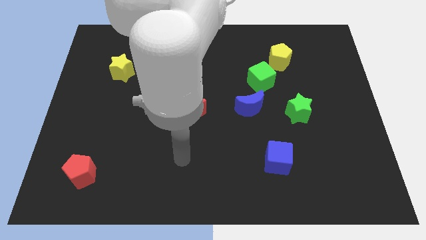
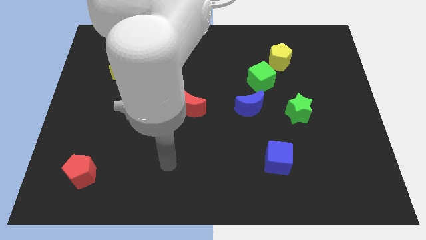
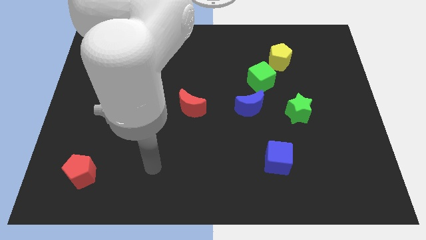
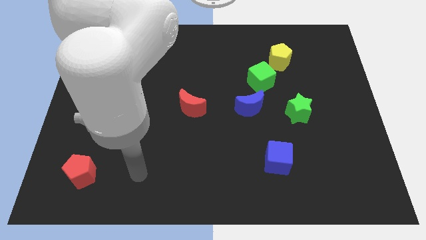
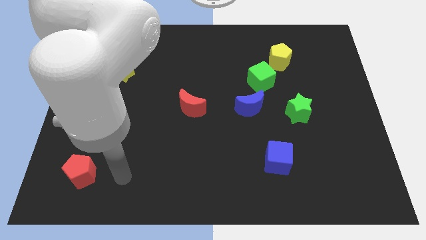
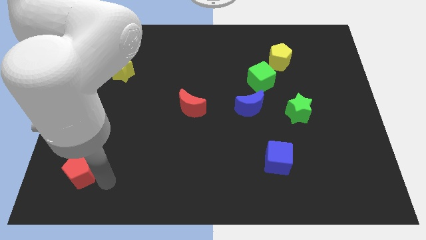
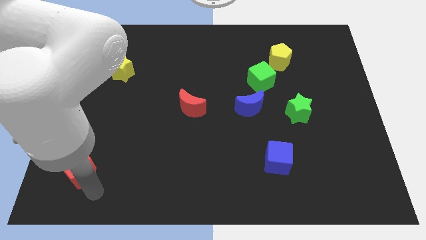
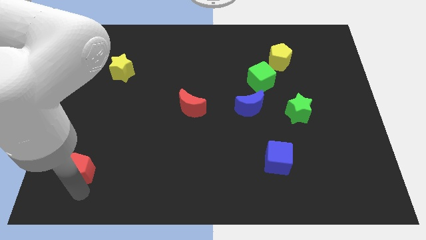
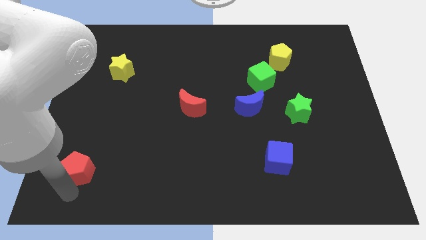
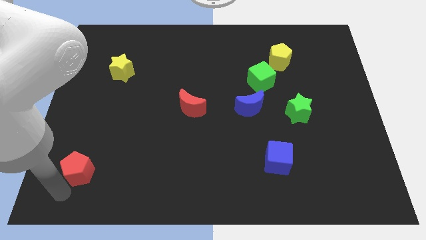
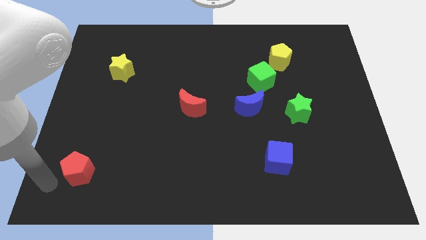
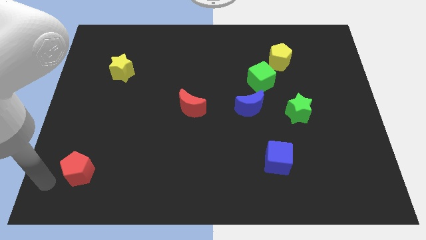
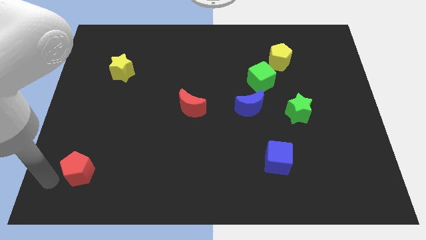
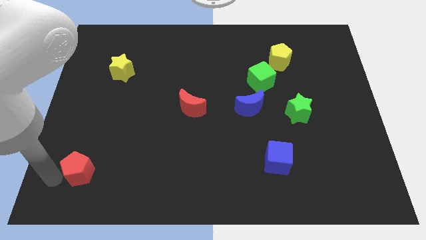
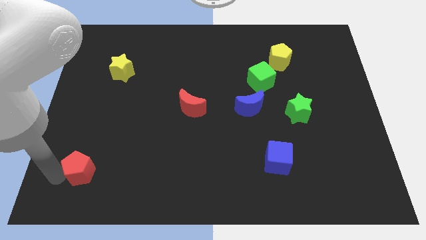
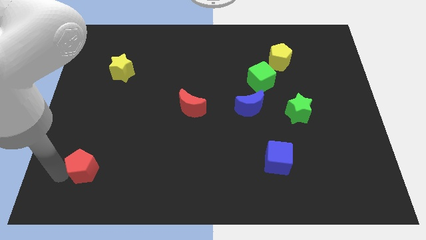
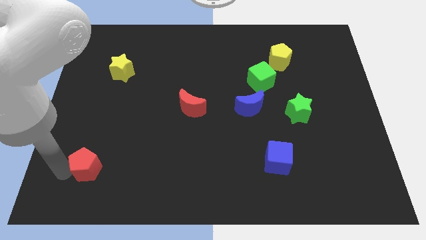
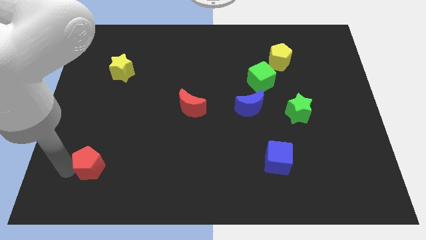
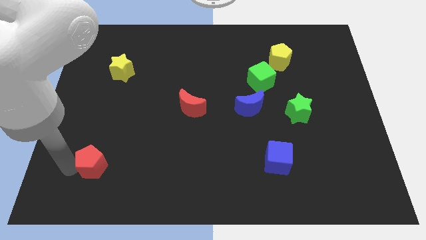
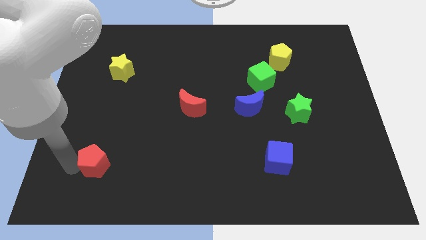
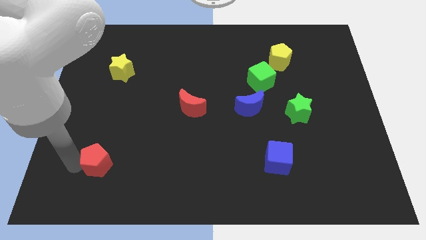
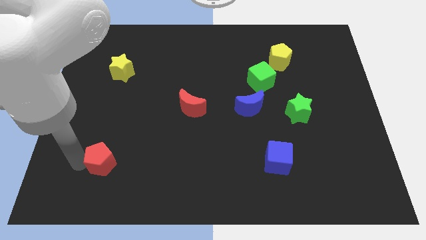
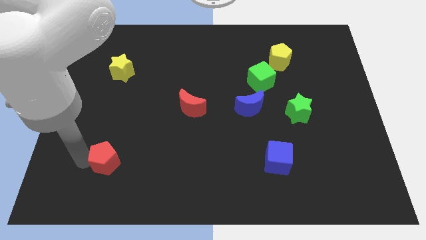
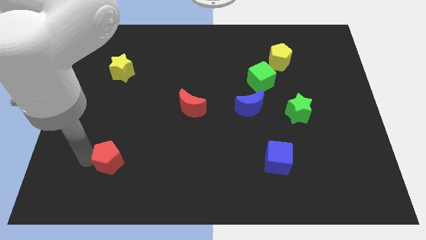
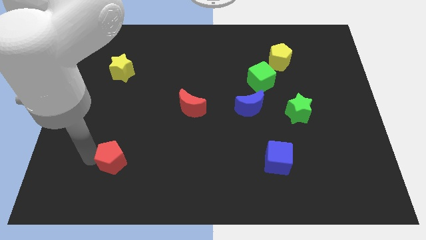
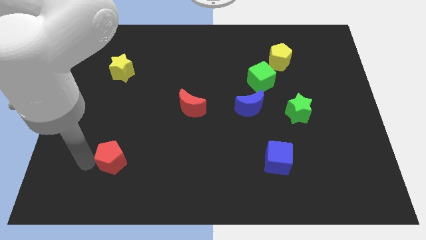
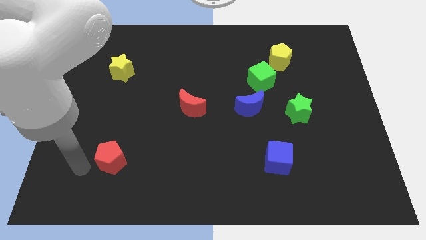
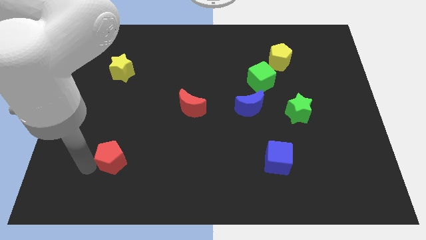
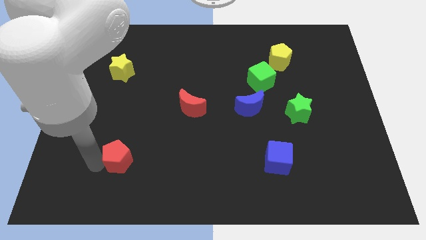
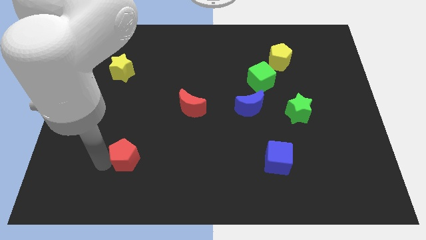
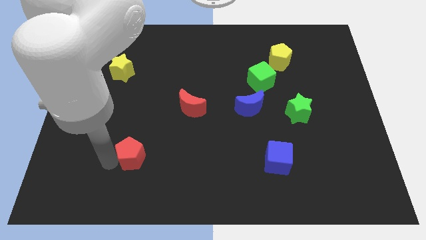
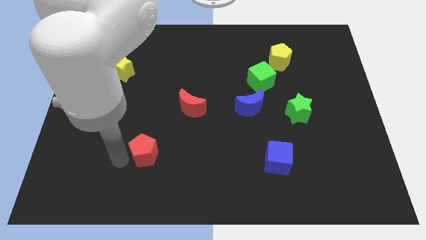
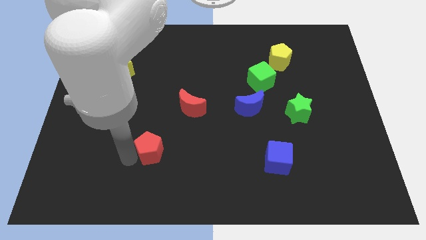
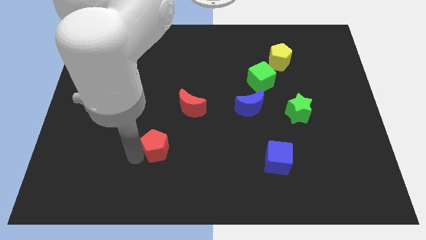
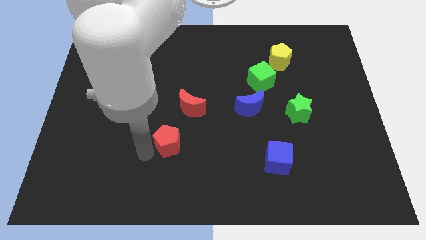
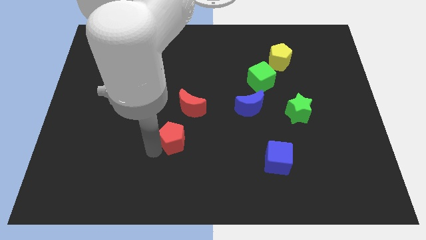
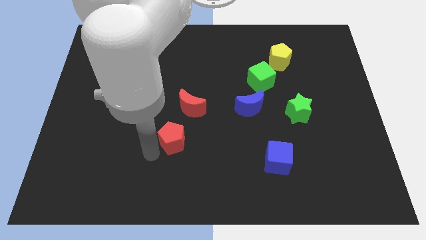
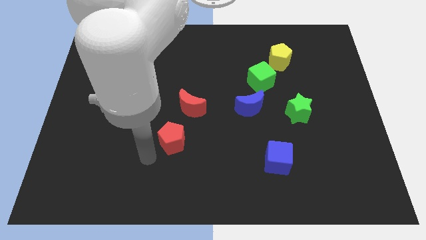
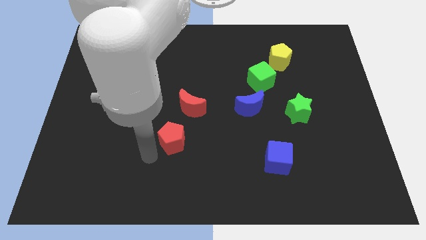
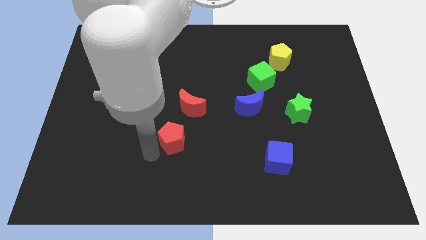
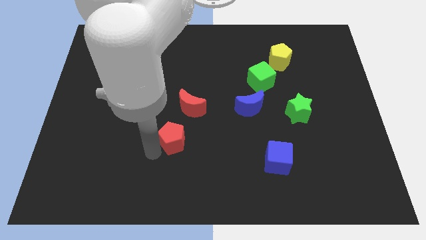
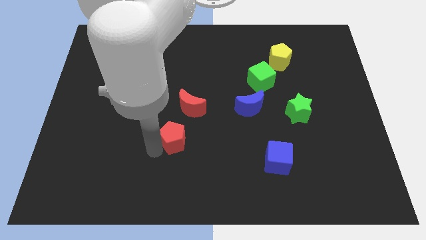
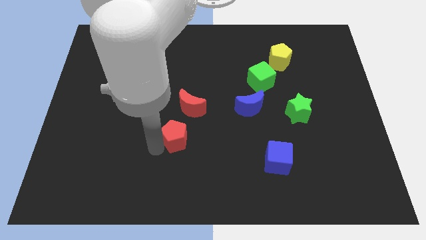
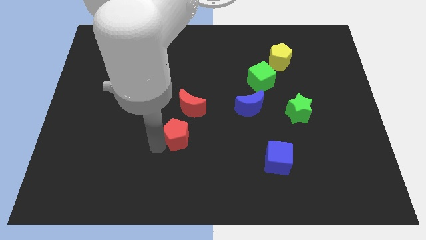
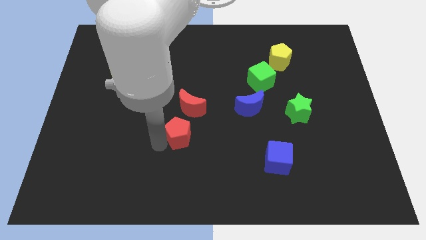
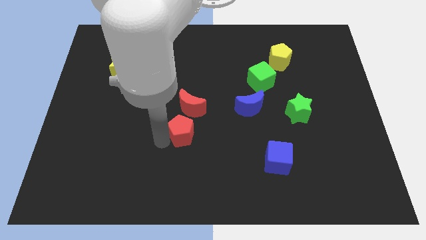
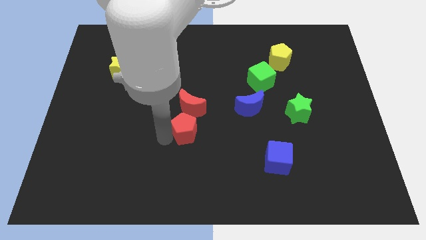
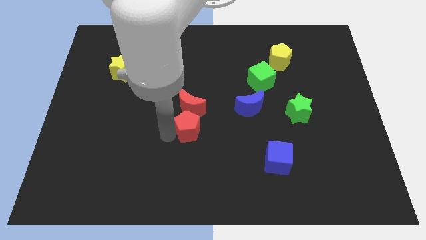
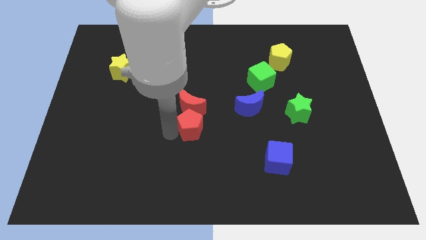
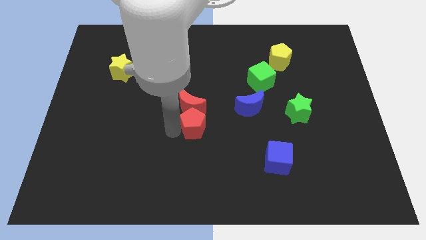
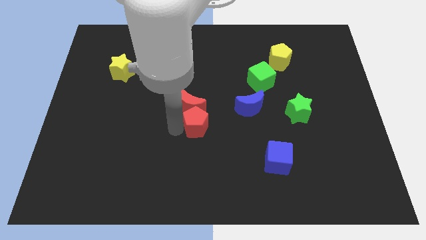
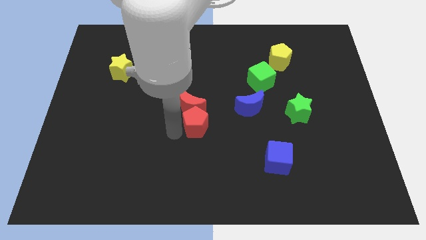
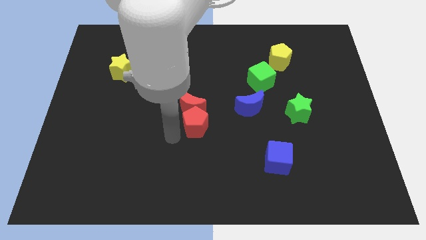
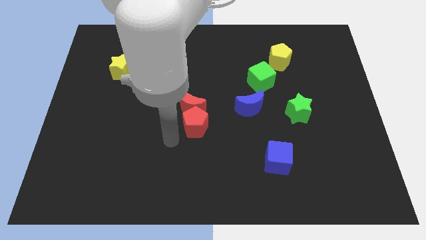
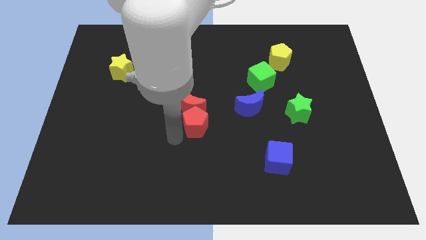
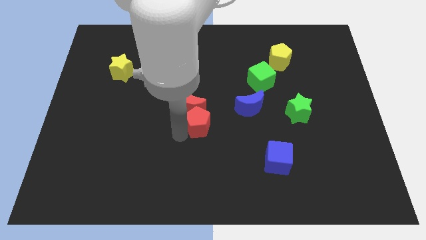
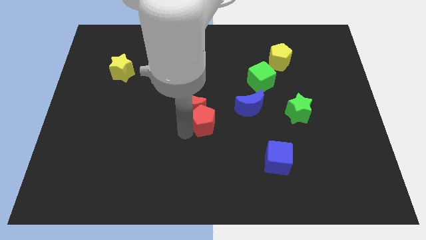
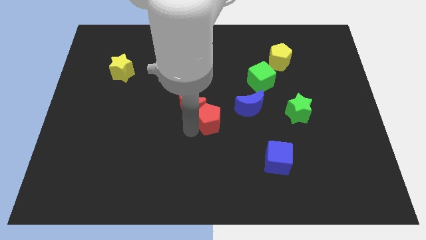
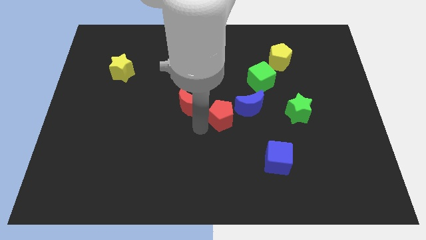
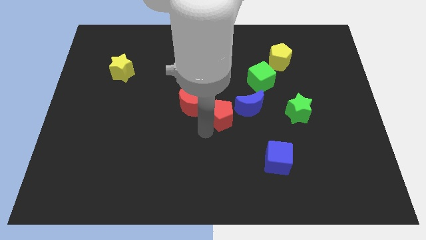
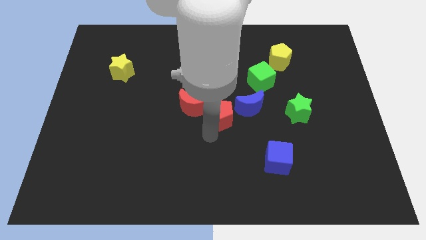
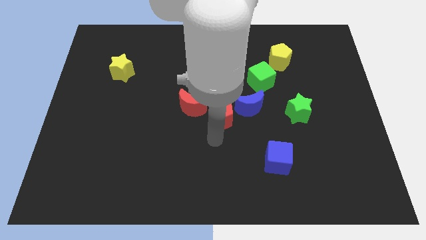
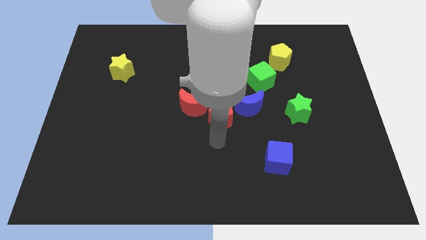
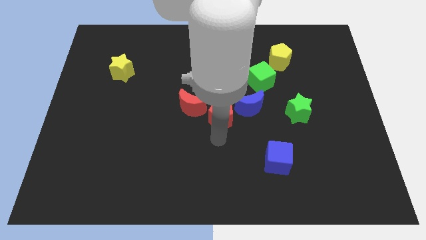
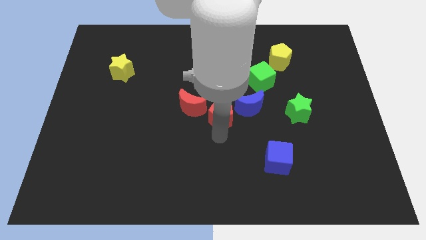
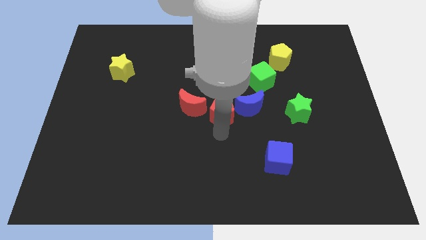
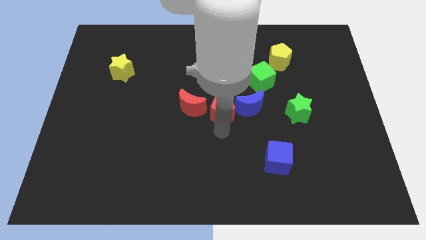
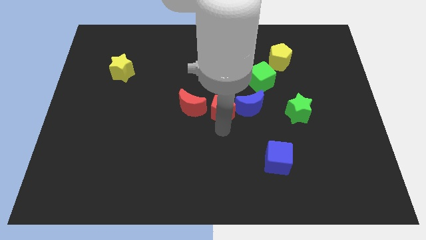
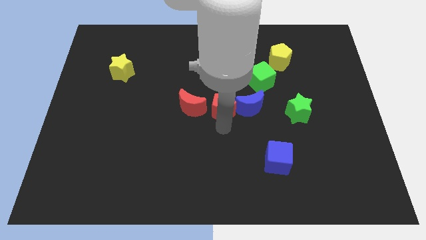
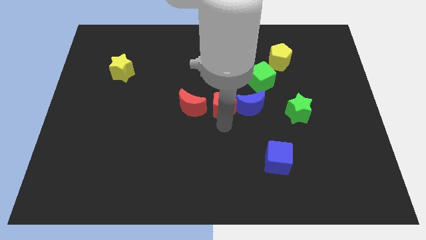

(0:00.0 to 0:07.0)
move the red pentagon to the bottom left of the green cube

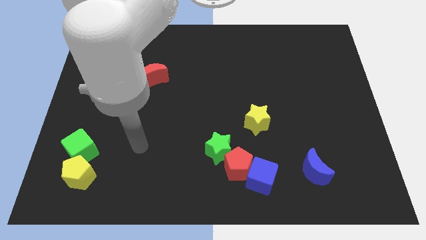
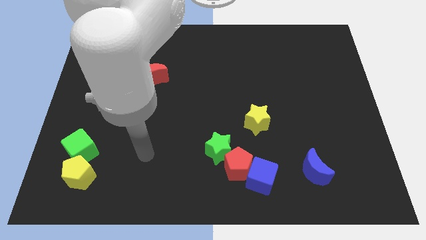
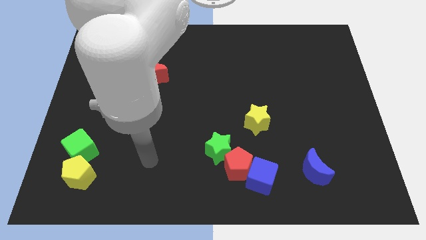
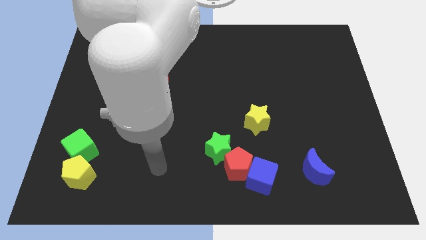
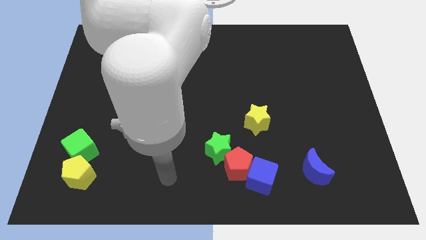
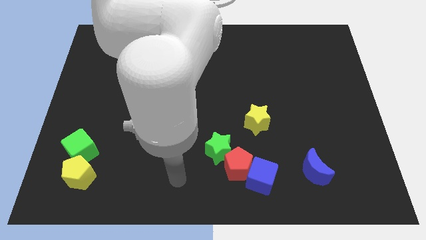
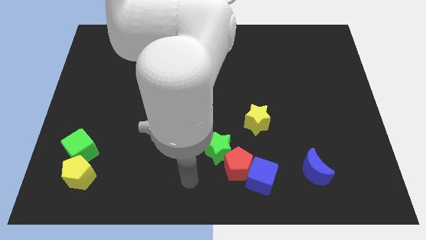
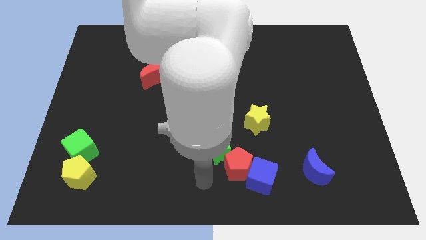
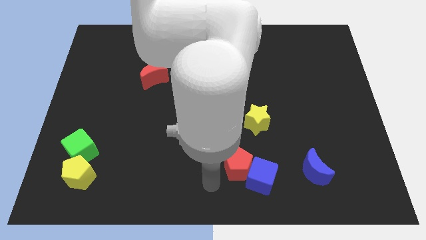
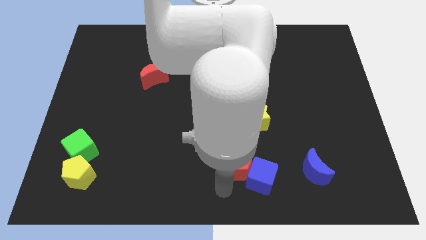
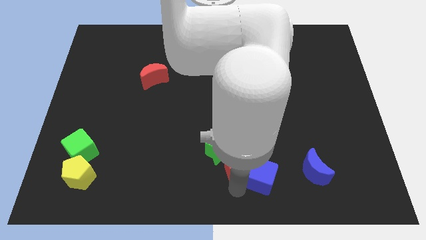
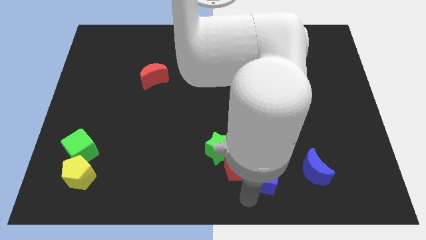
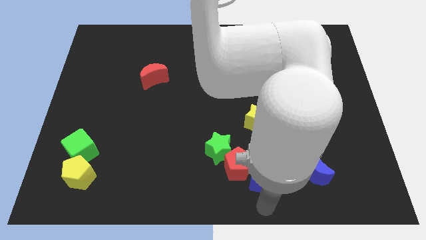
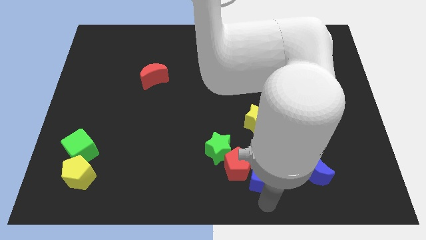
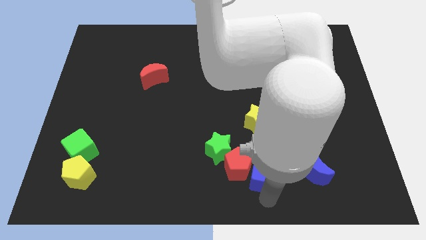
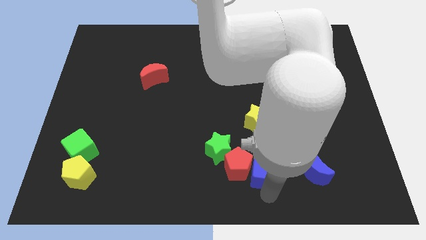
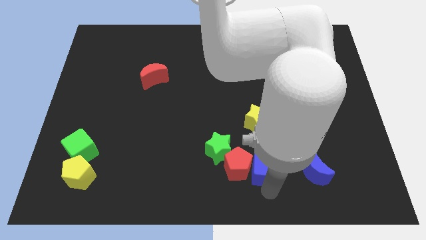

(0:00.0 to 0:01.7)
move the blue cube diagonally up and to the right of the red pentagon
